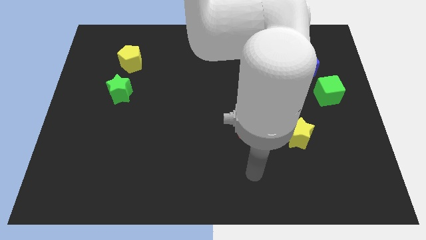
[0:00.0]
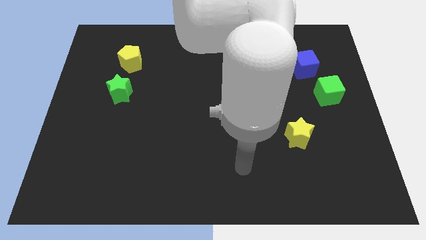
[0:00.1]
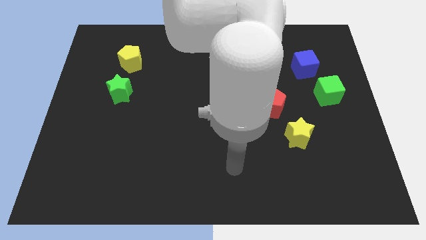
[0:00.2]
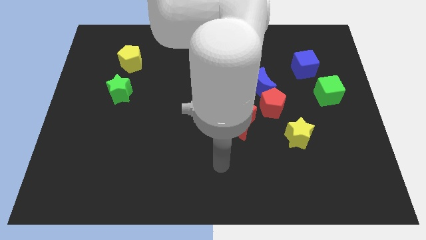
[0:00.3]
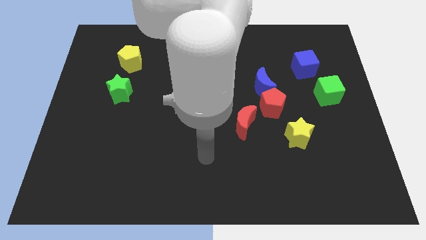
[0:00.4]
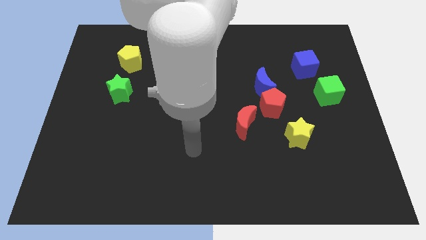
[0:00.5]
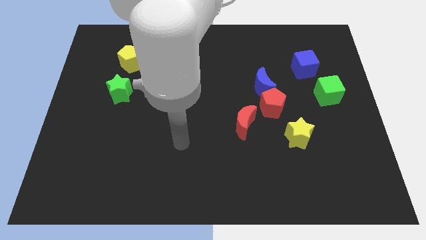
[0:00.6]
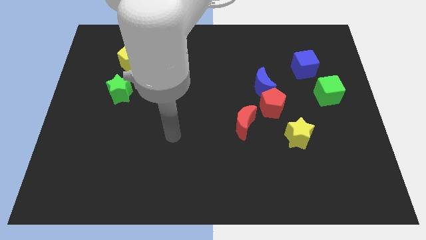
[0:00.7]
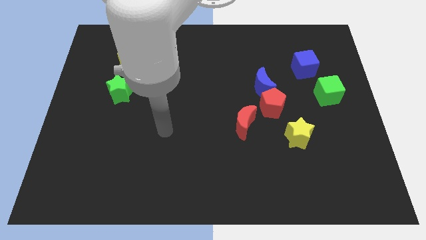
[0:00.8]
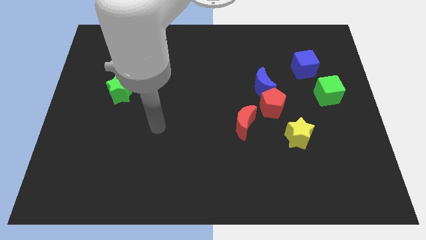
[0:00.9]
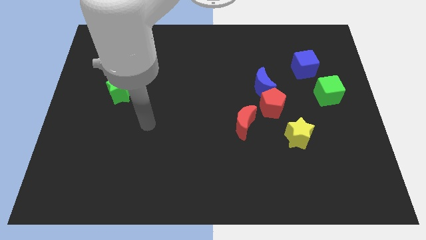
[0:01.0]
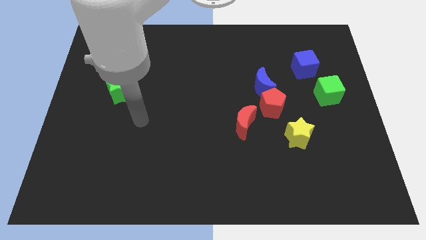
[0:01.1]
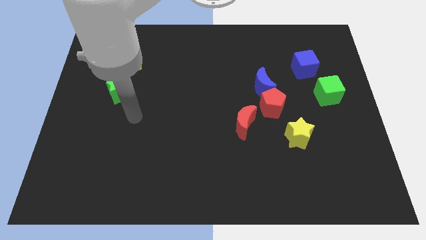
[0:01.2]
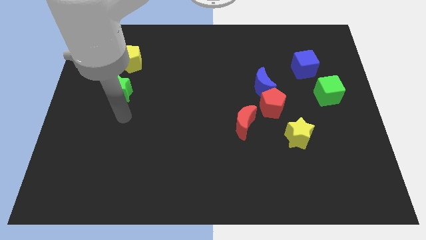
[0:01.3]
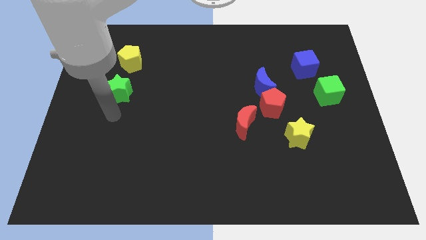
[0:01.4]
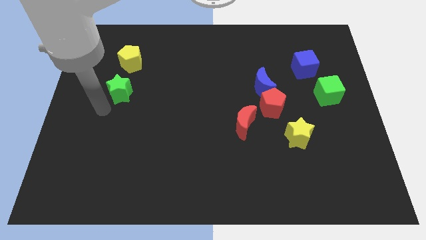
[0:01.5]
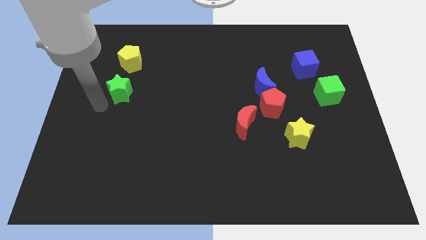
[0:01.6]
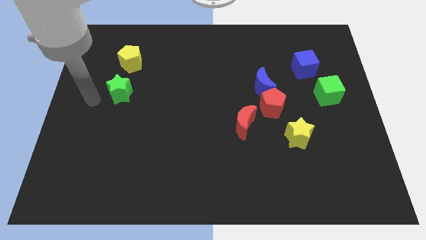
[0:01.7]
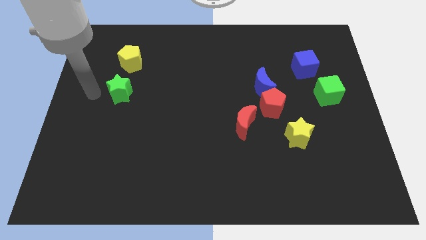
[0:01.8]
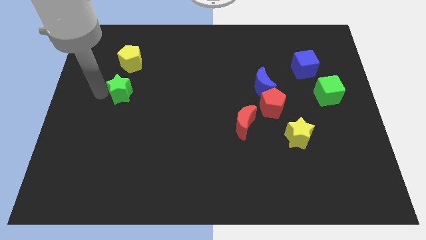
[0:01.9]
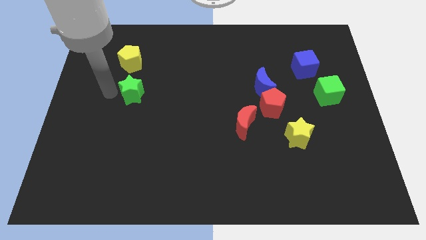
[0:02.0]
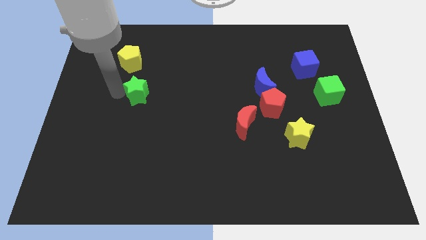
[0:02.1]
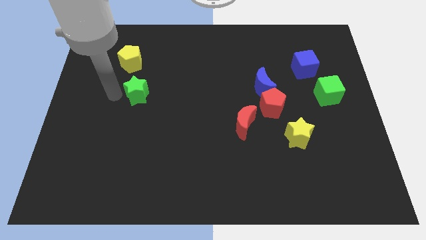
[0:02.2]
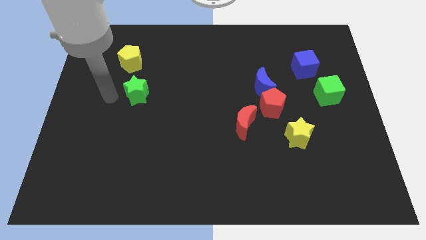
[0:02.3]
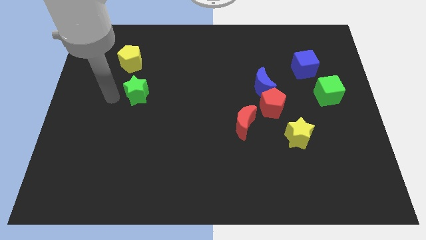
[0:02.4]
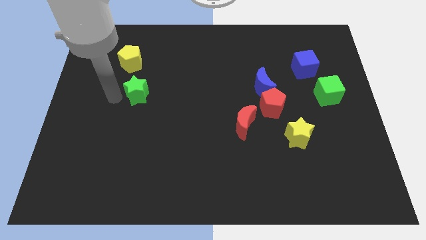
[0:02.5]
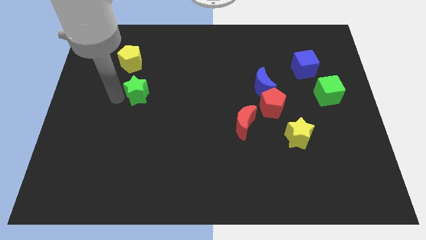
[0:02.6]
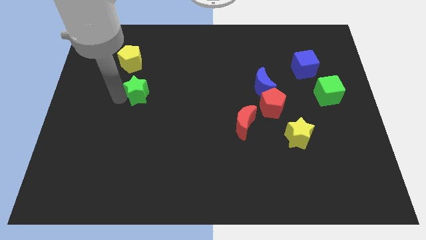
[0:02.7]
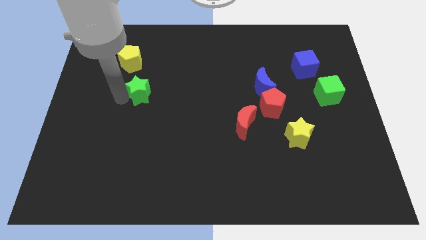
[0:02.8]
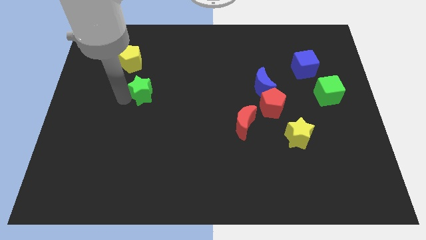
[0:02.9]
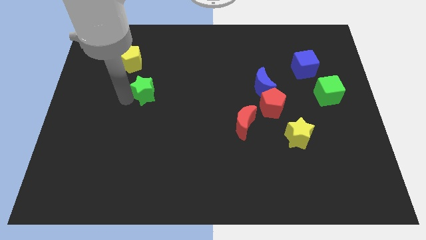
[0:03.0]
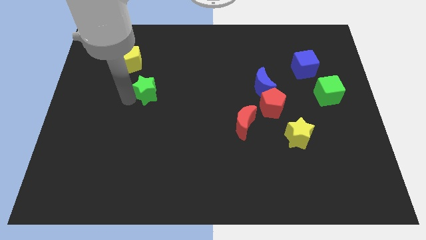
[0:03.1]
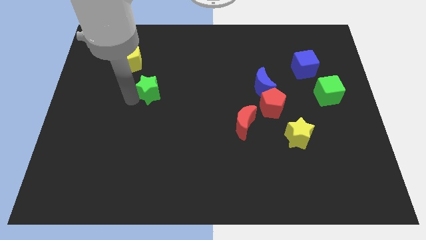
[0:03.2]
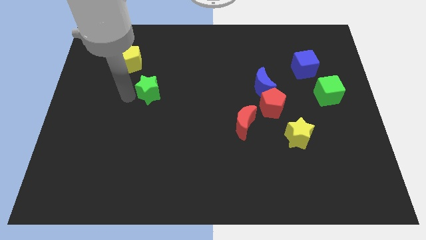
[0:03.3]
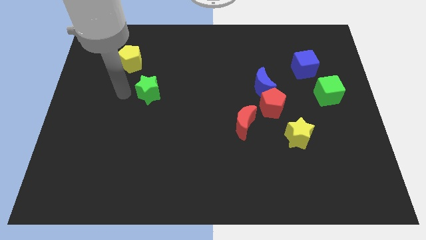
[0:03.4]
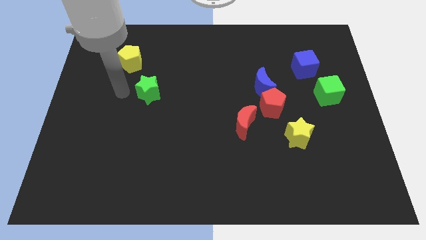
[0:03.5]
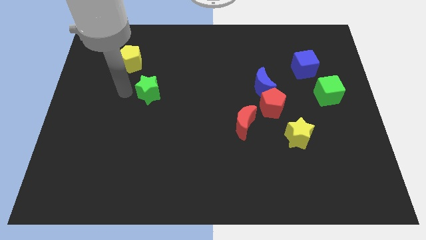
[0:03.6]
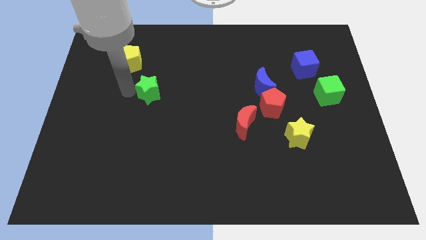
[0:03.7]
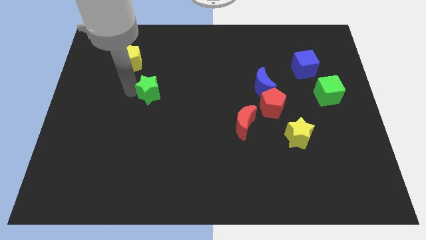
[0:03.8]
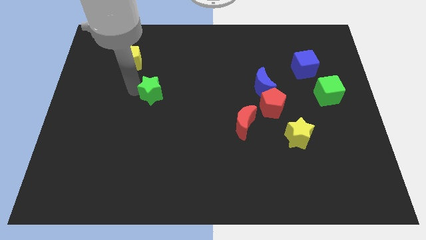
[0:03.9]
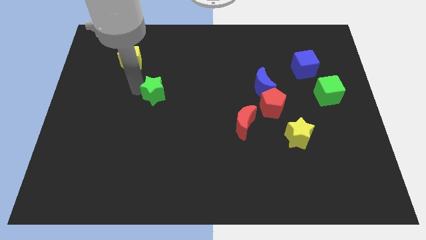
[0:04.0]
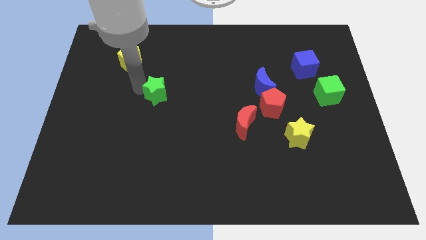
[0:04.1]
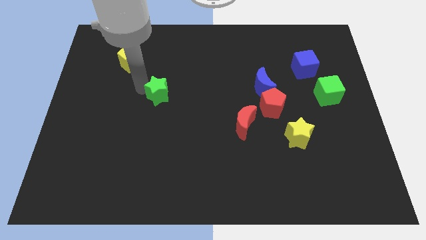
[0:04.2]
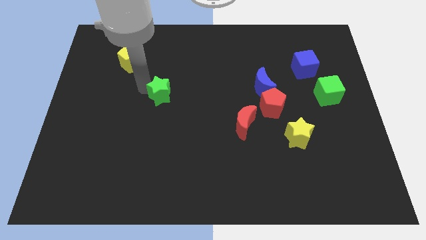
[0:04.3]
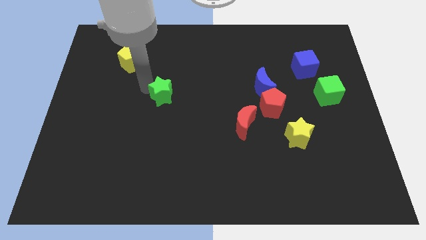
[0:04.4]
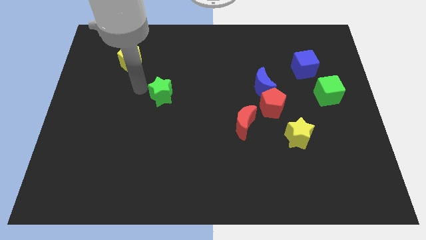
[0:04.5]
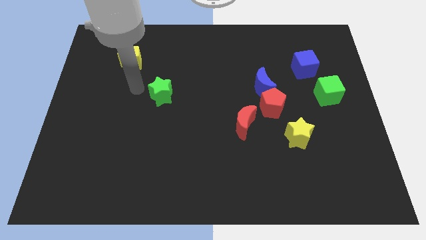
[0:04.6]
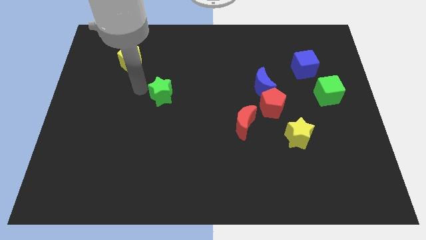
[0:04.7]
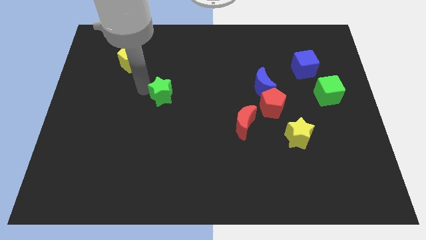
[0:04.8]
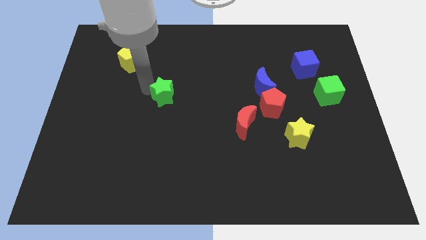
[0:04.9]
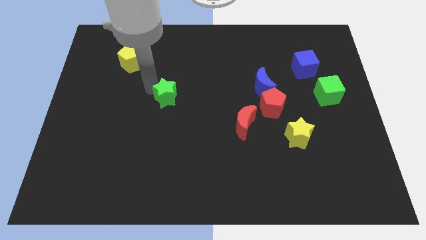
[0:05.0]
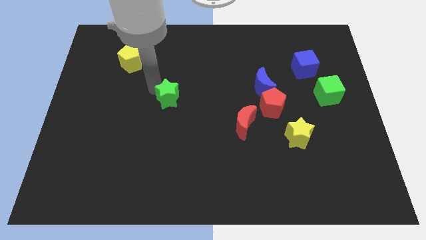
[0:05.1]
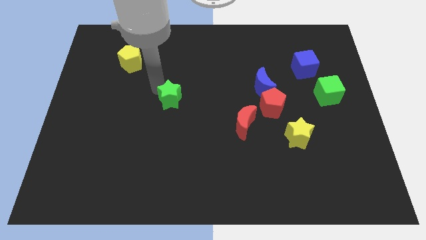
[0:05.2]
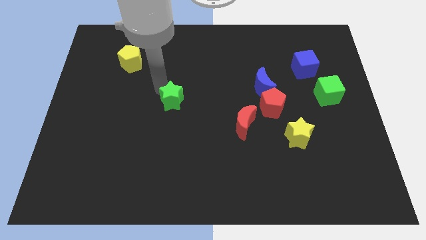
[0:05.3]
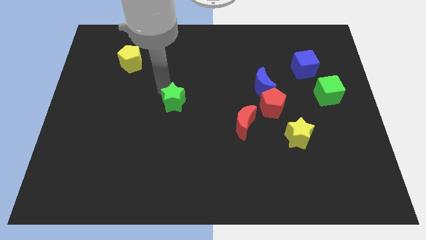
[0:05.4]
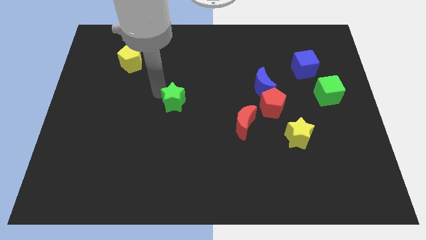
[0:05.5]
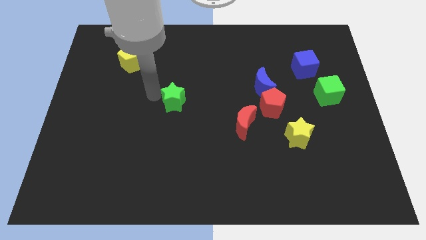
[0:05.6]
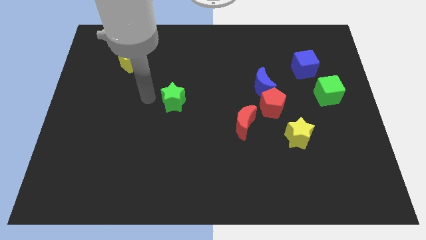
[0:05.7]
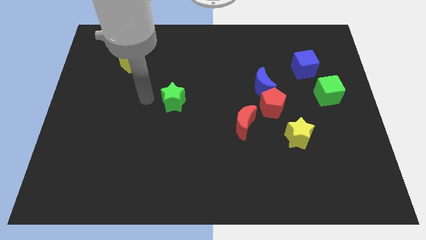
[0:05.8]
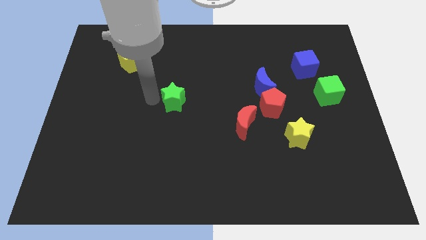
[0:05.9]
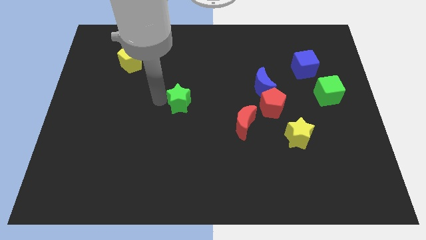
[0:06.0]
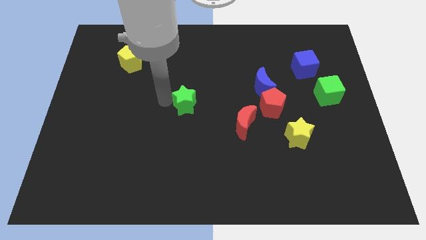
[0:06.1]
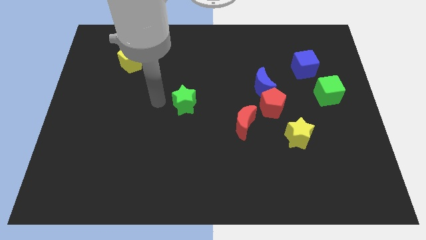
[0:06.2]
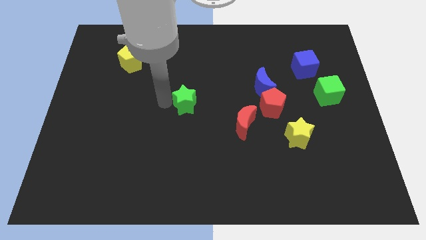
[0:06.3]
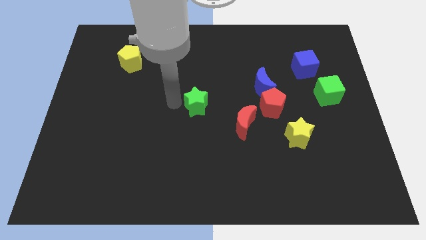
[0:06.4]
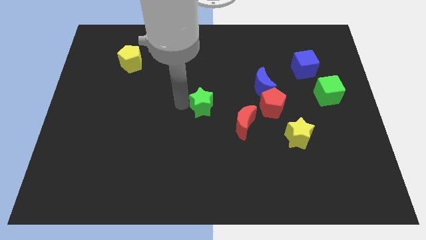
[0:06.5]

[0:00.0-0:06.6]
move the green star to the top left of the red moon

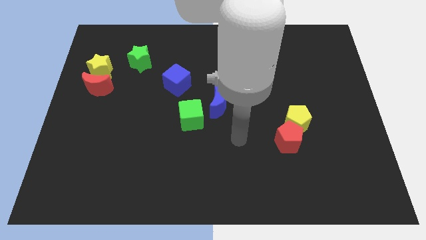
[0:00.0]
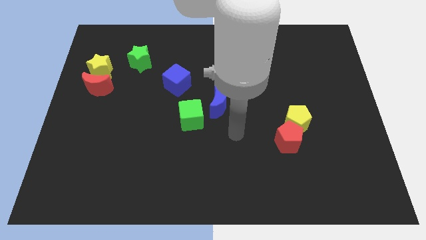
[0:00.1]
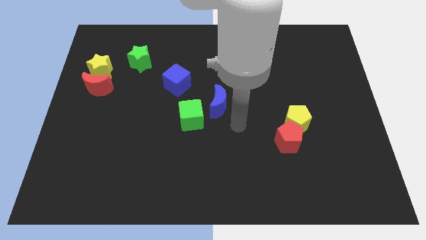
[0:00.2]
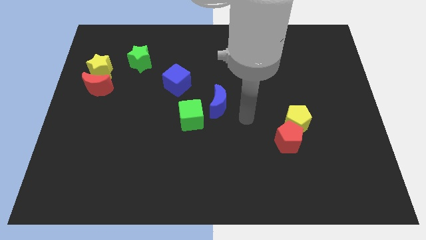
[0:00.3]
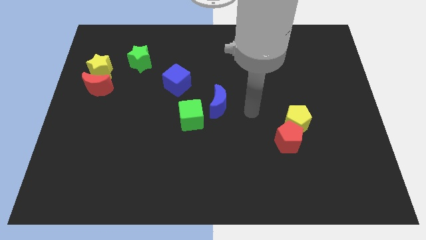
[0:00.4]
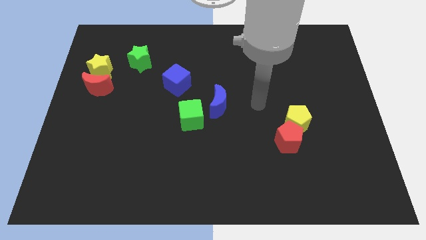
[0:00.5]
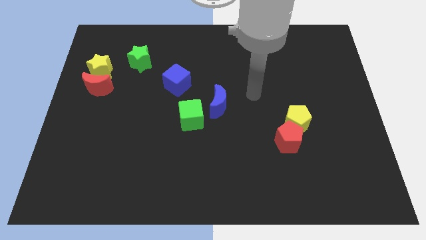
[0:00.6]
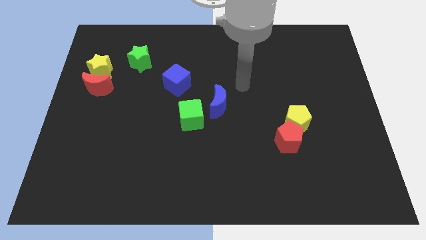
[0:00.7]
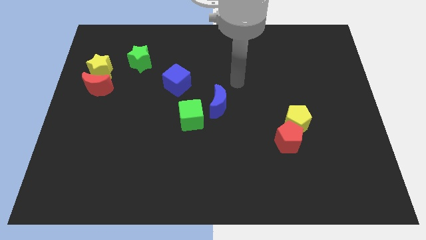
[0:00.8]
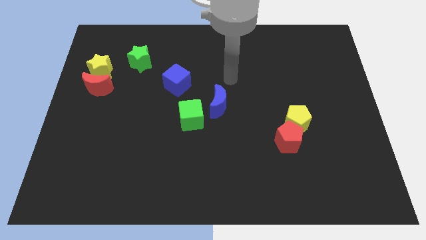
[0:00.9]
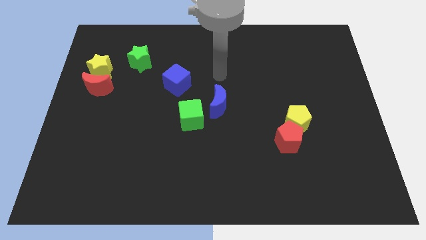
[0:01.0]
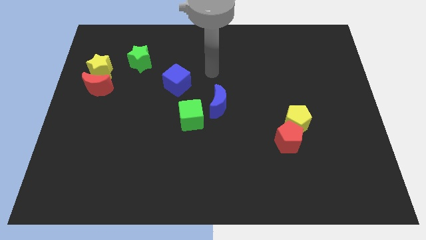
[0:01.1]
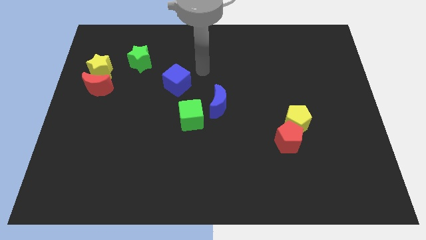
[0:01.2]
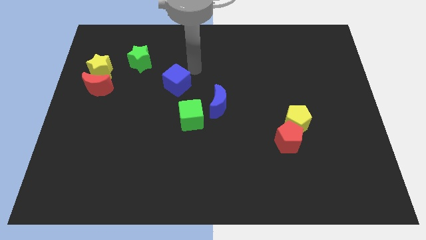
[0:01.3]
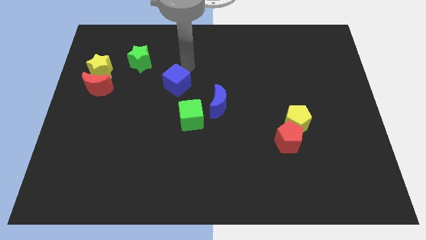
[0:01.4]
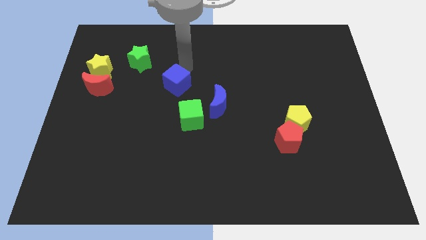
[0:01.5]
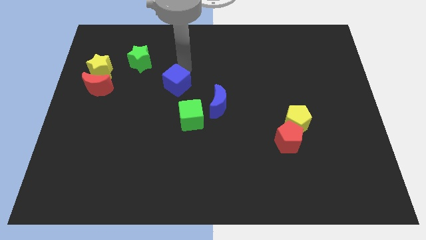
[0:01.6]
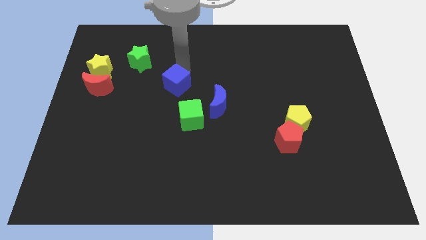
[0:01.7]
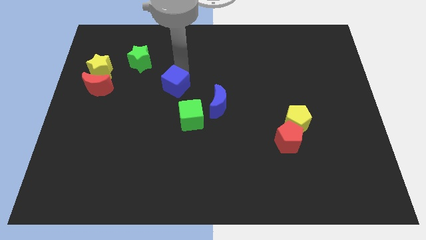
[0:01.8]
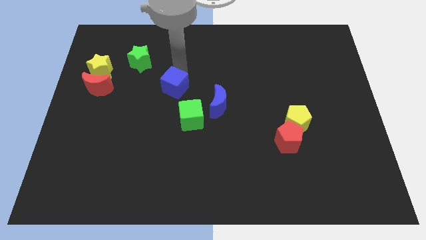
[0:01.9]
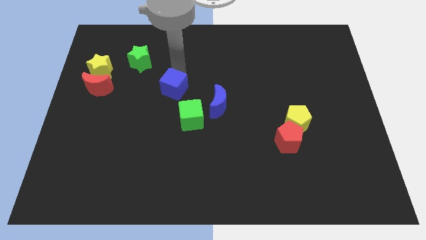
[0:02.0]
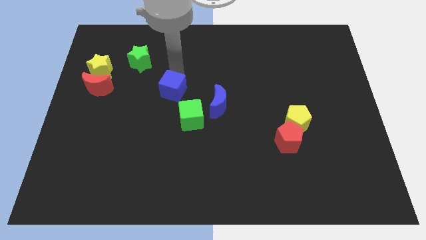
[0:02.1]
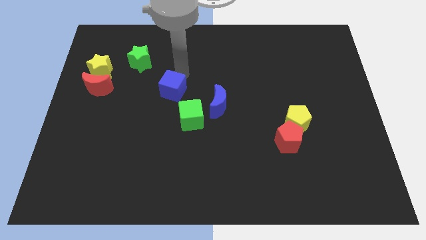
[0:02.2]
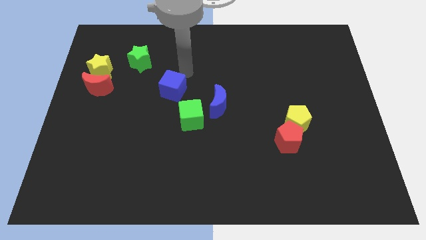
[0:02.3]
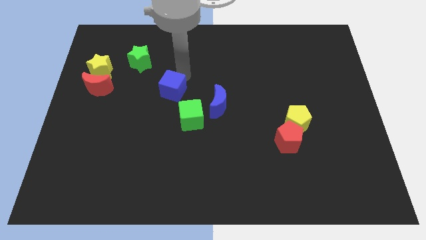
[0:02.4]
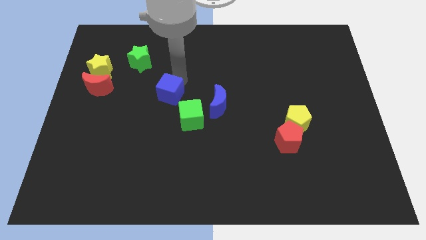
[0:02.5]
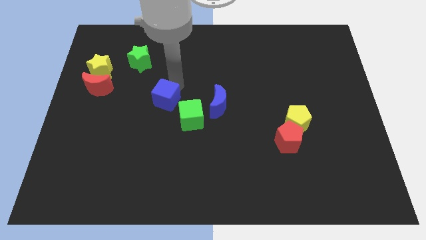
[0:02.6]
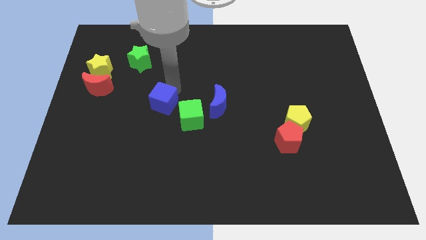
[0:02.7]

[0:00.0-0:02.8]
put the blue cube to the left of the green cube
